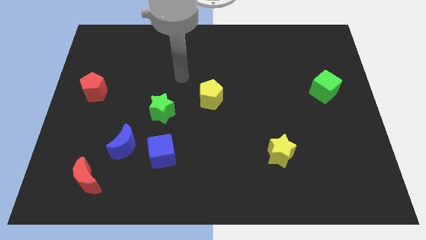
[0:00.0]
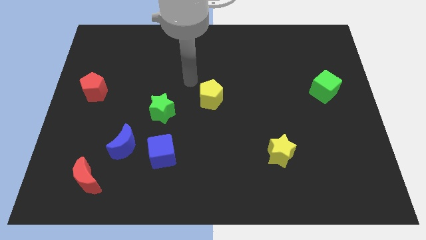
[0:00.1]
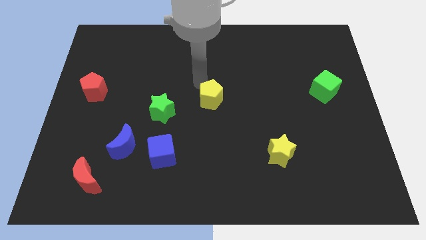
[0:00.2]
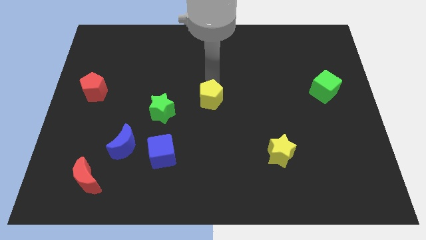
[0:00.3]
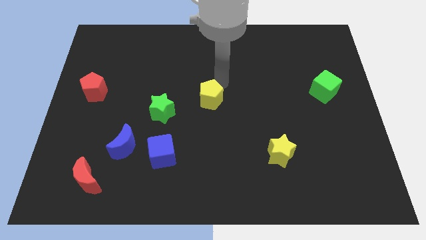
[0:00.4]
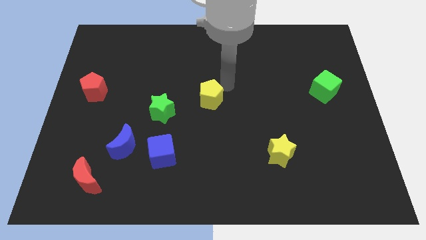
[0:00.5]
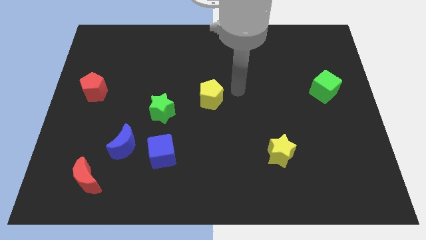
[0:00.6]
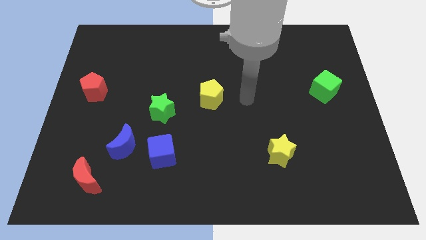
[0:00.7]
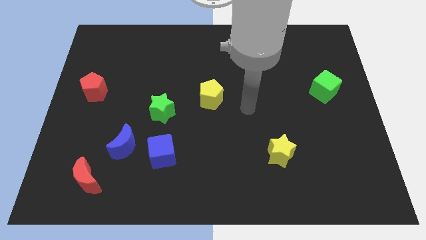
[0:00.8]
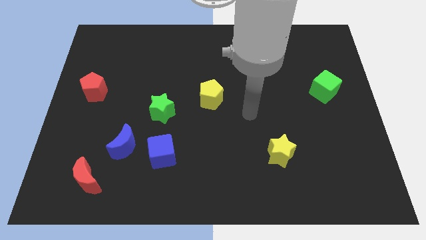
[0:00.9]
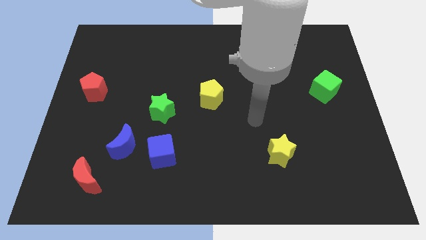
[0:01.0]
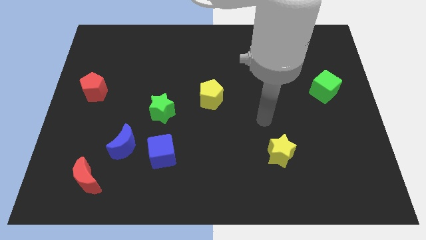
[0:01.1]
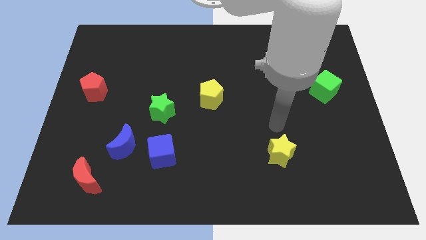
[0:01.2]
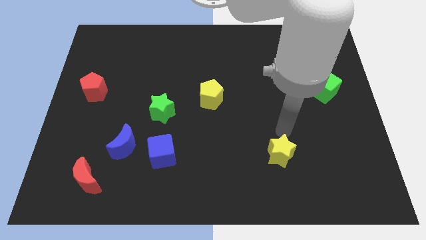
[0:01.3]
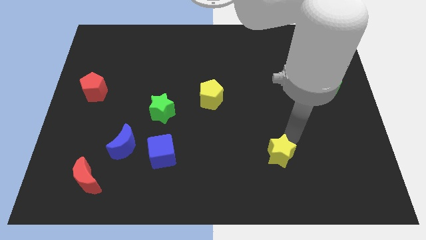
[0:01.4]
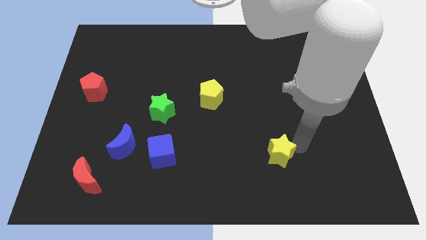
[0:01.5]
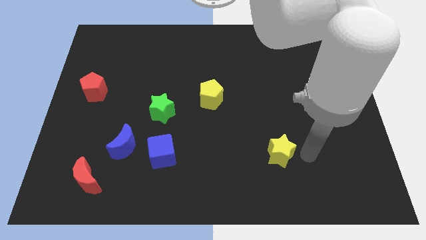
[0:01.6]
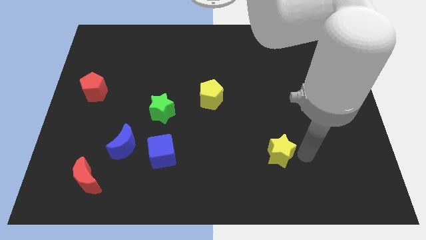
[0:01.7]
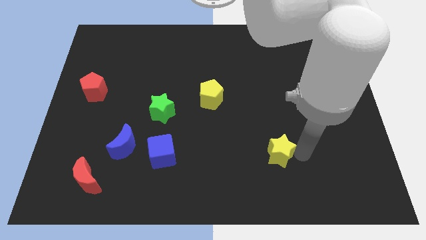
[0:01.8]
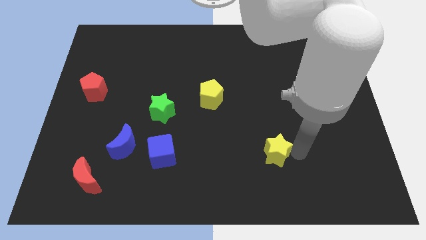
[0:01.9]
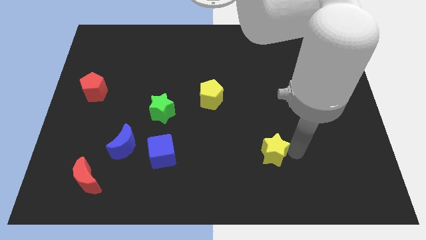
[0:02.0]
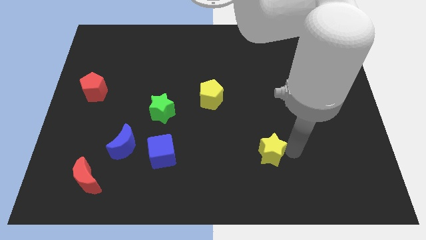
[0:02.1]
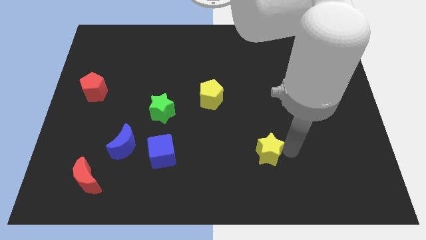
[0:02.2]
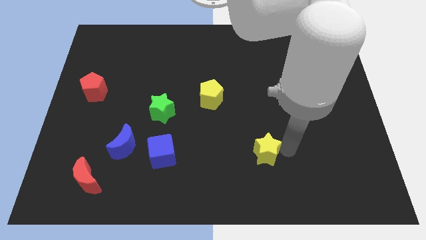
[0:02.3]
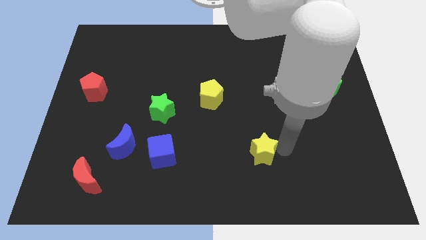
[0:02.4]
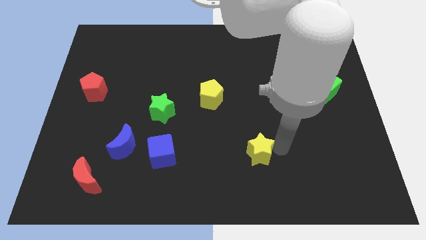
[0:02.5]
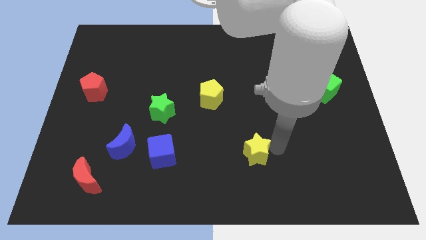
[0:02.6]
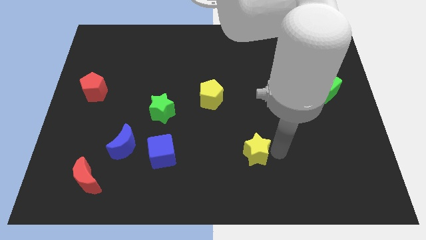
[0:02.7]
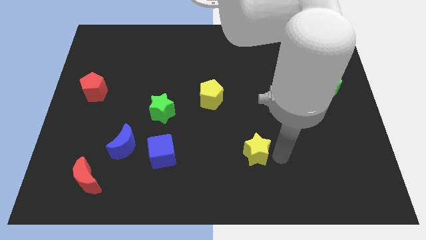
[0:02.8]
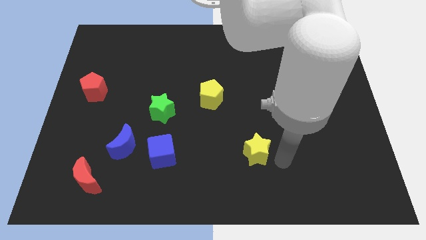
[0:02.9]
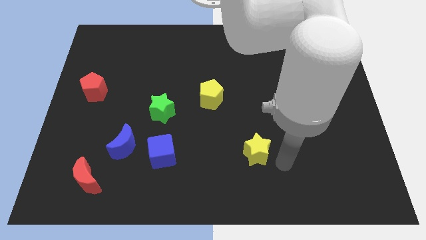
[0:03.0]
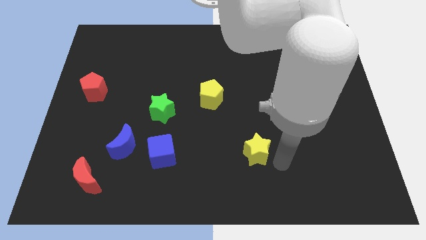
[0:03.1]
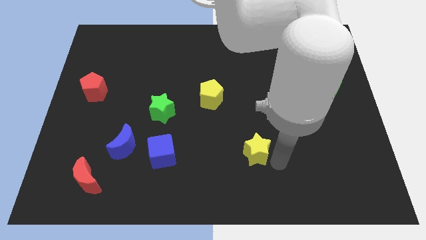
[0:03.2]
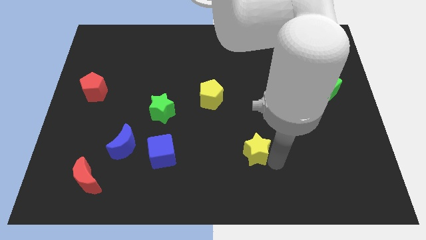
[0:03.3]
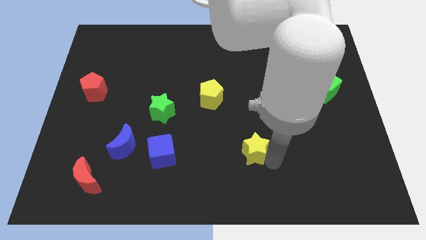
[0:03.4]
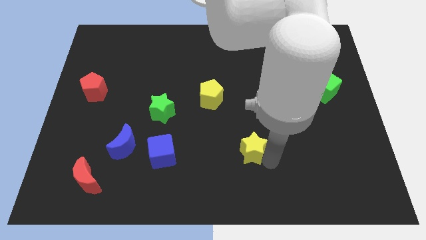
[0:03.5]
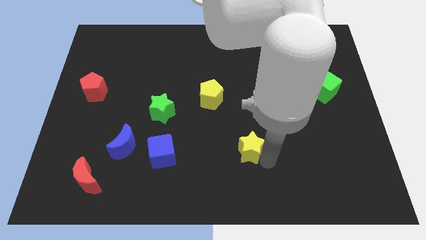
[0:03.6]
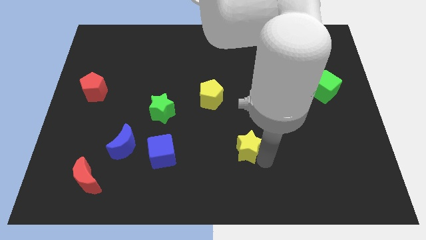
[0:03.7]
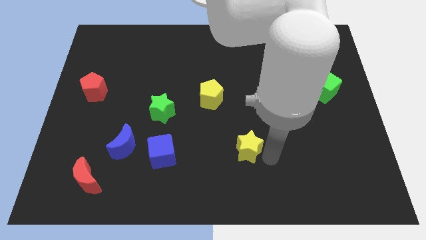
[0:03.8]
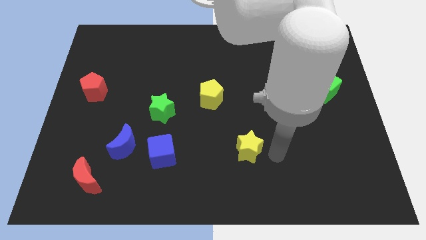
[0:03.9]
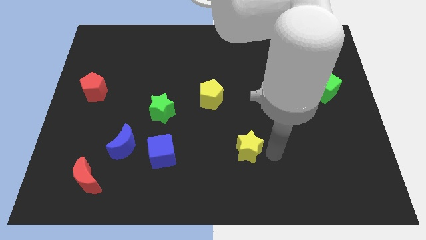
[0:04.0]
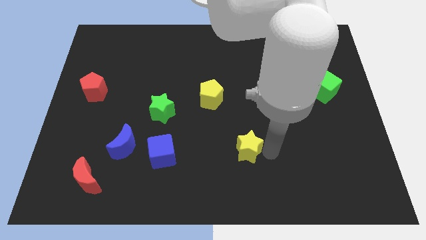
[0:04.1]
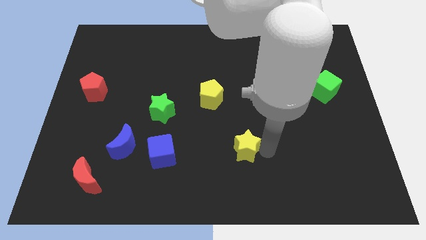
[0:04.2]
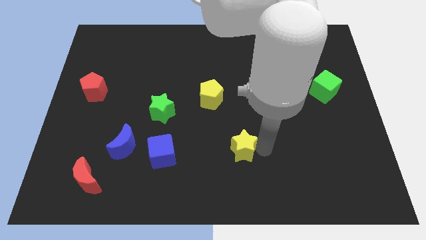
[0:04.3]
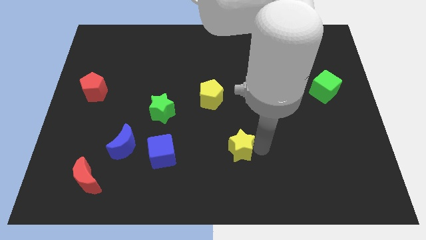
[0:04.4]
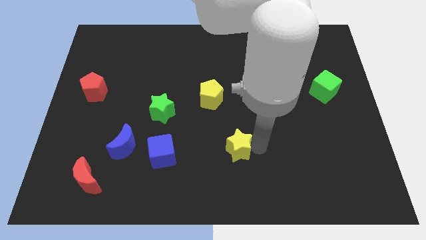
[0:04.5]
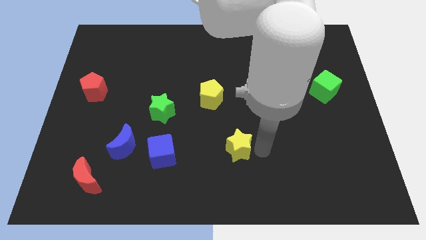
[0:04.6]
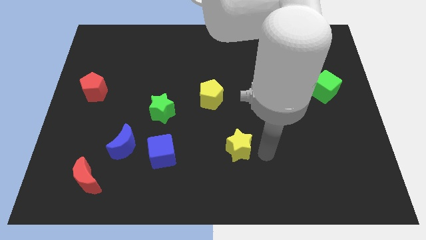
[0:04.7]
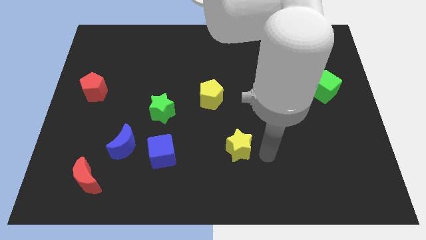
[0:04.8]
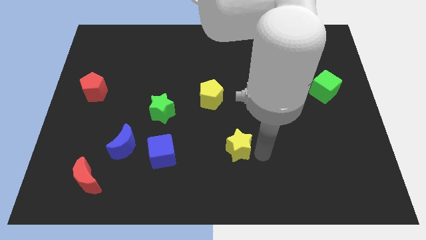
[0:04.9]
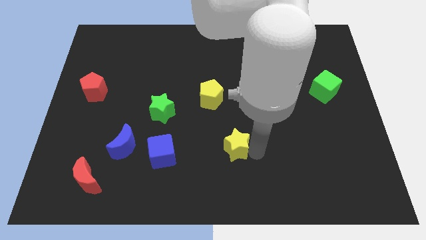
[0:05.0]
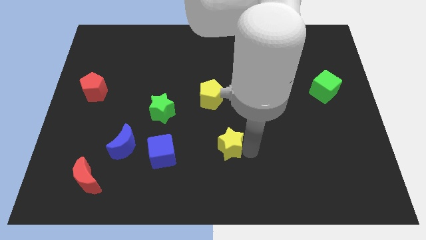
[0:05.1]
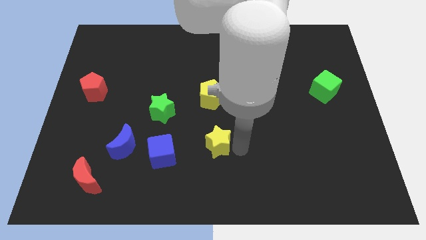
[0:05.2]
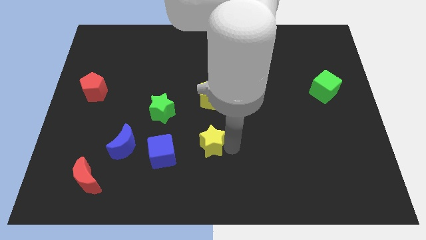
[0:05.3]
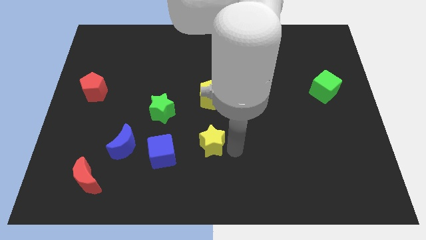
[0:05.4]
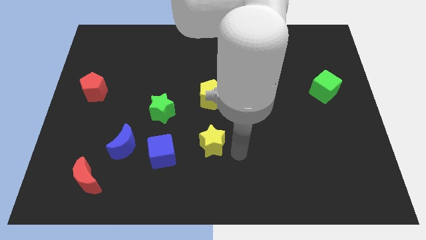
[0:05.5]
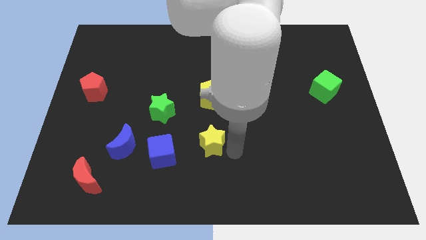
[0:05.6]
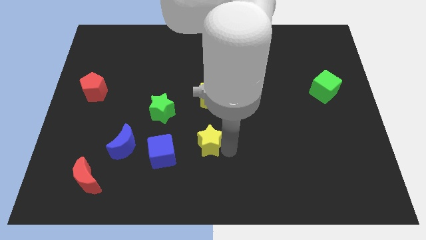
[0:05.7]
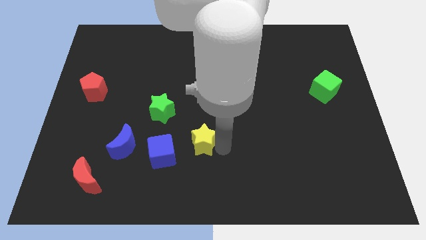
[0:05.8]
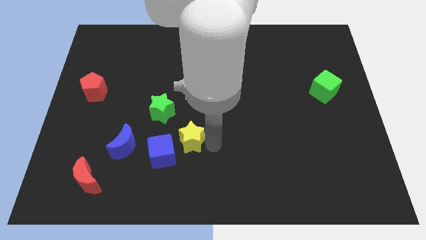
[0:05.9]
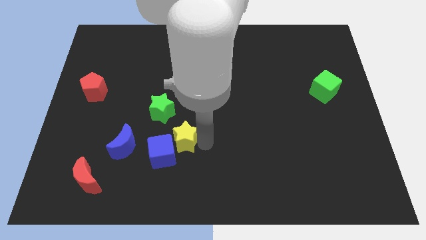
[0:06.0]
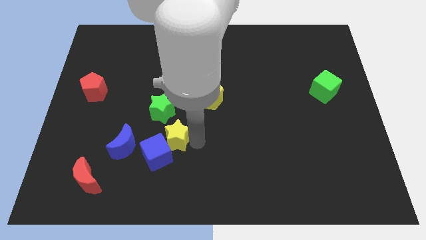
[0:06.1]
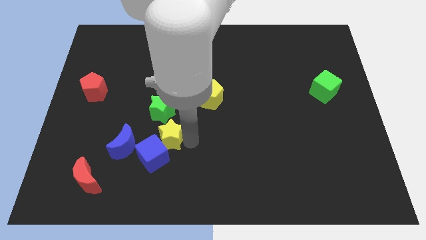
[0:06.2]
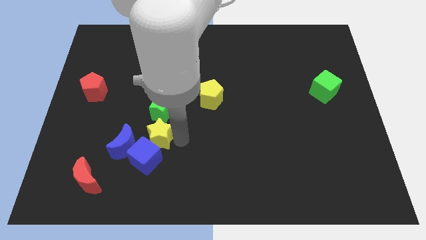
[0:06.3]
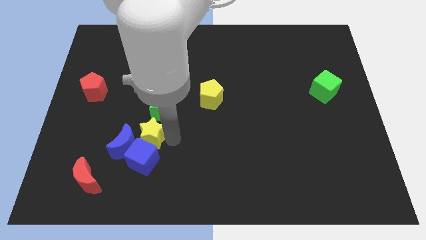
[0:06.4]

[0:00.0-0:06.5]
put the yellow star to the bottom left side of the green star

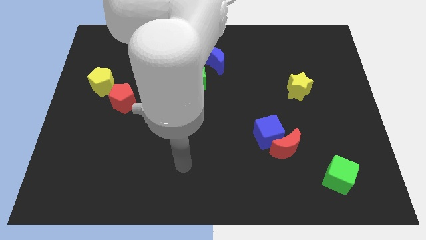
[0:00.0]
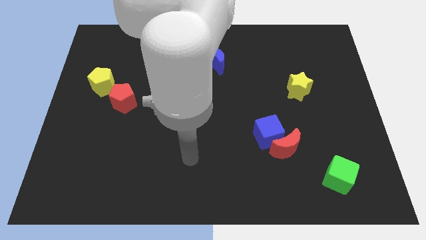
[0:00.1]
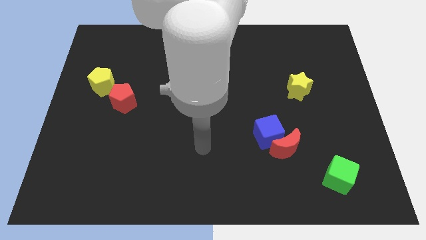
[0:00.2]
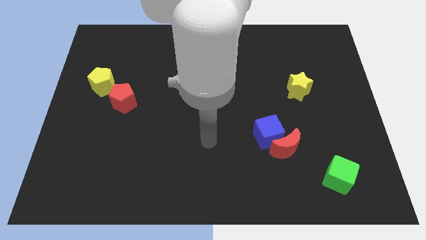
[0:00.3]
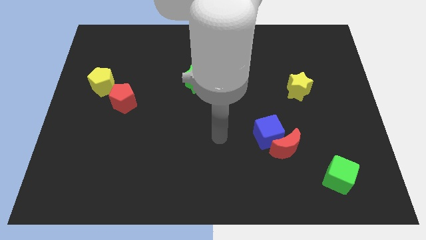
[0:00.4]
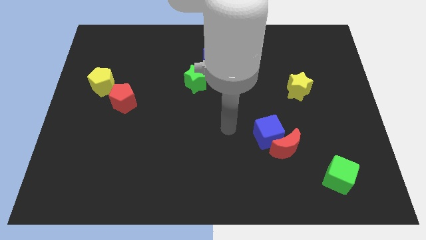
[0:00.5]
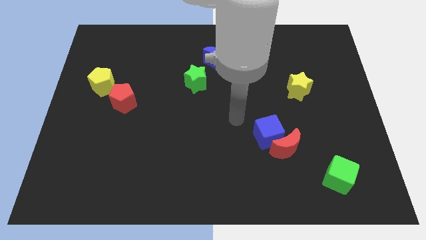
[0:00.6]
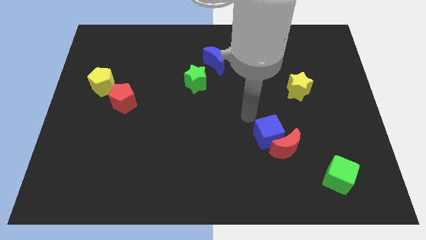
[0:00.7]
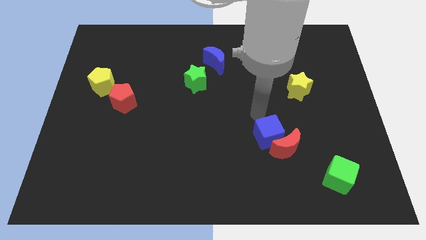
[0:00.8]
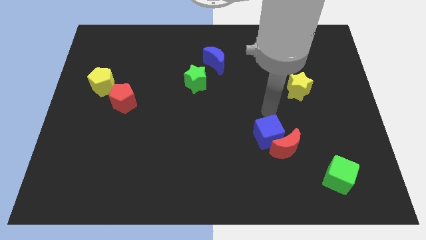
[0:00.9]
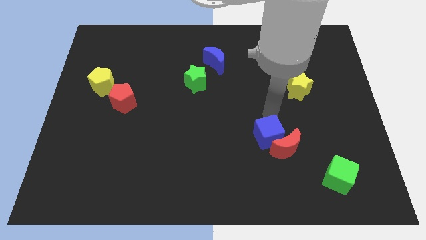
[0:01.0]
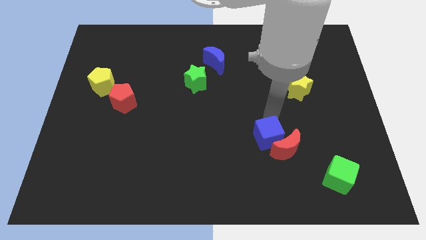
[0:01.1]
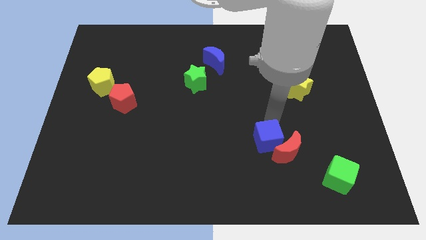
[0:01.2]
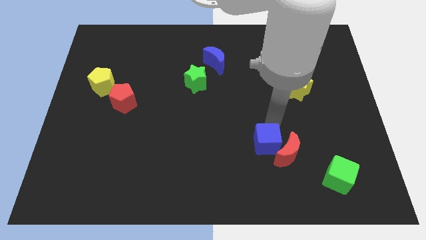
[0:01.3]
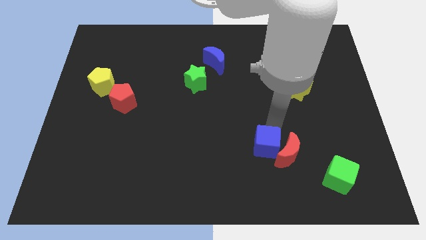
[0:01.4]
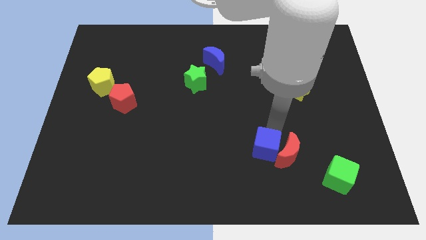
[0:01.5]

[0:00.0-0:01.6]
slide the blue cube diagonally down and to the left of the red moon
